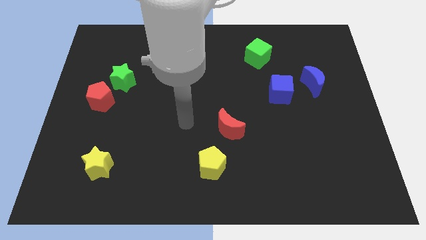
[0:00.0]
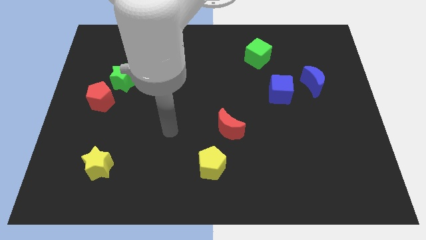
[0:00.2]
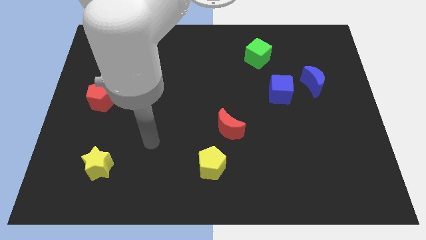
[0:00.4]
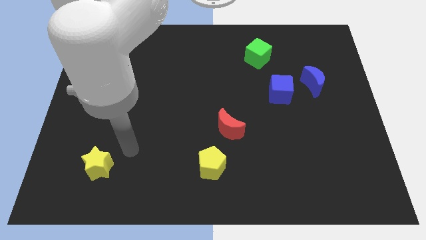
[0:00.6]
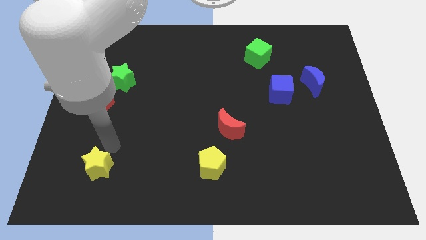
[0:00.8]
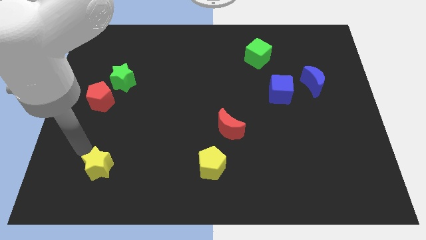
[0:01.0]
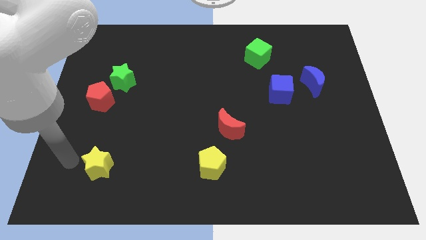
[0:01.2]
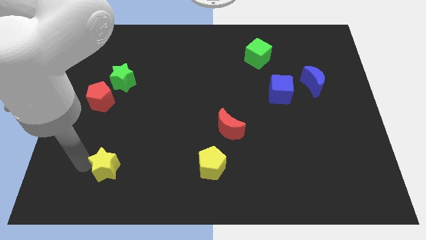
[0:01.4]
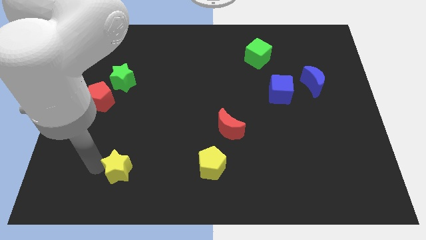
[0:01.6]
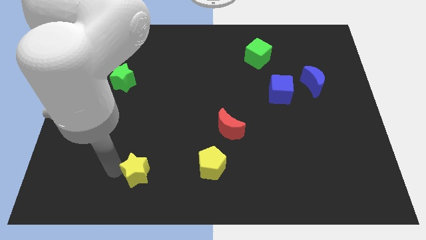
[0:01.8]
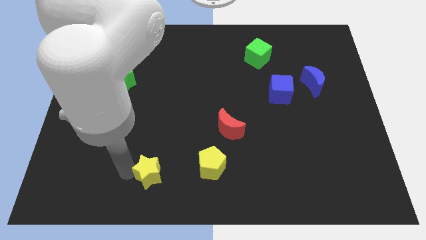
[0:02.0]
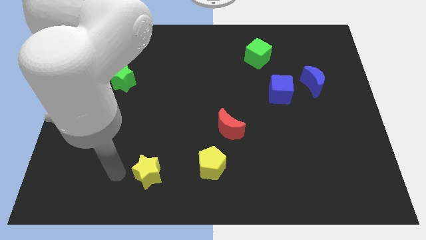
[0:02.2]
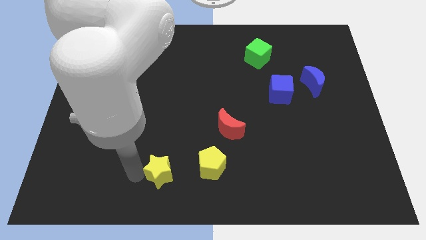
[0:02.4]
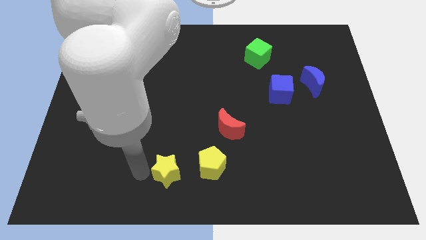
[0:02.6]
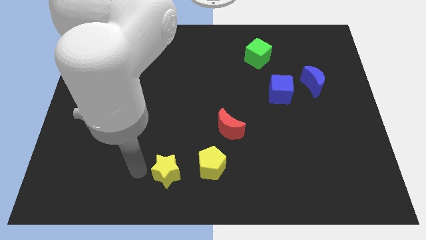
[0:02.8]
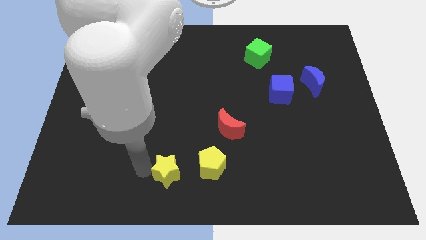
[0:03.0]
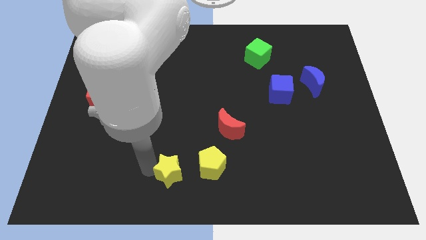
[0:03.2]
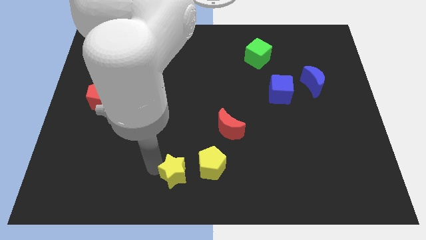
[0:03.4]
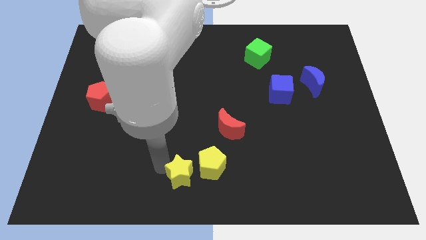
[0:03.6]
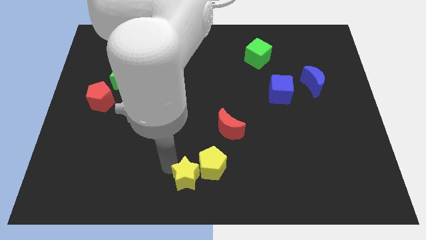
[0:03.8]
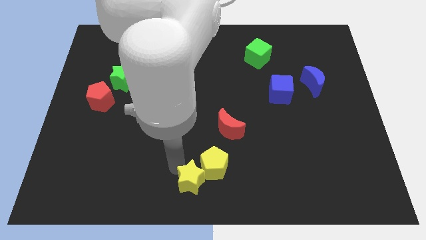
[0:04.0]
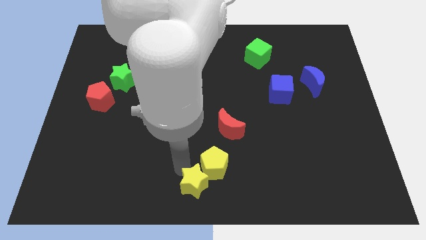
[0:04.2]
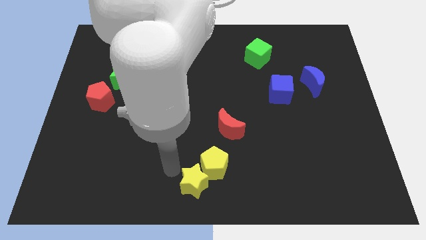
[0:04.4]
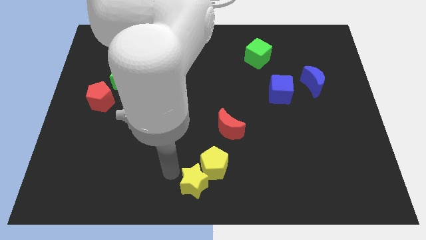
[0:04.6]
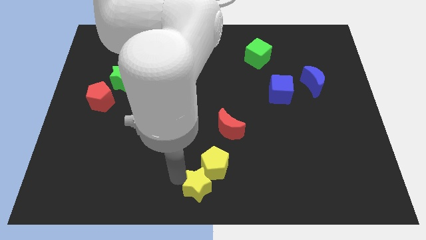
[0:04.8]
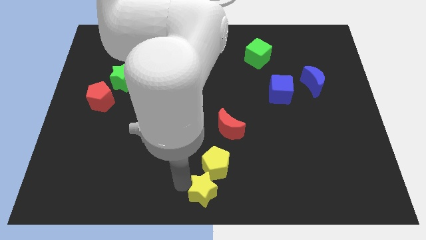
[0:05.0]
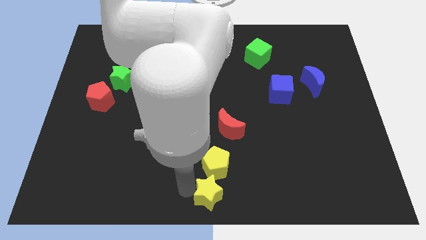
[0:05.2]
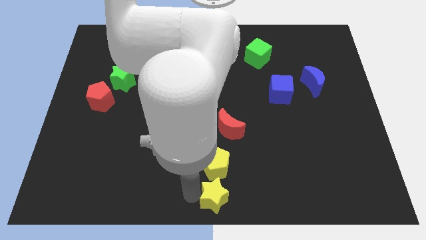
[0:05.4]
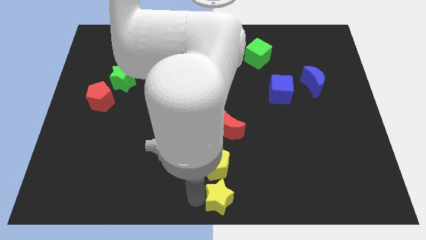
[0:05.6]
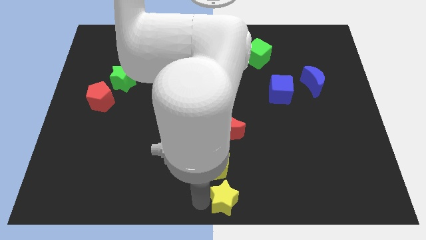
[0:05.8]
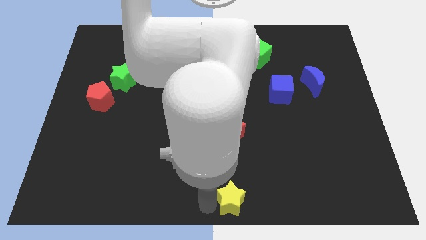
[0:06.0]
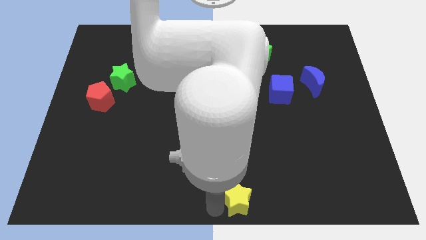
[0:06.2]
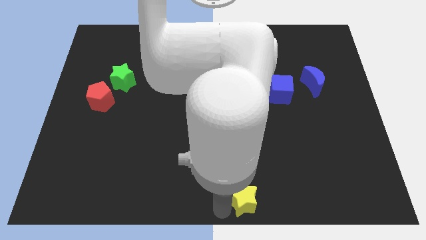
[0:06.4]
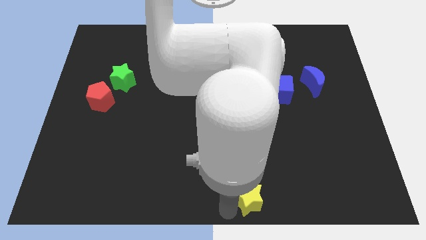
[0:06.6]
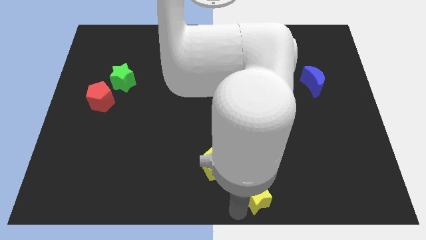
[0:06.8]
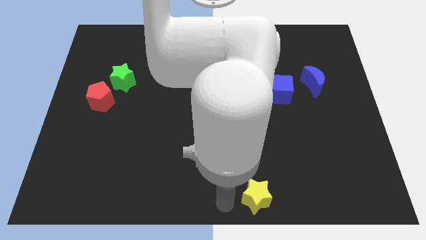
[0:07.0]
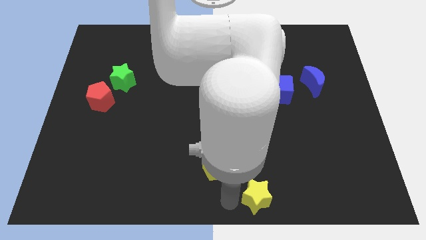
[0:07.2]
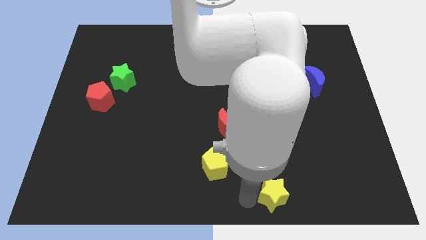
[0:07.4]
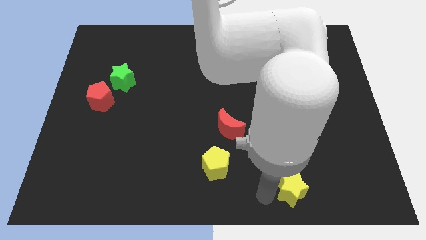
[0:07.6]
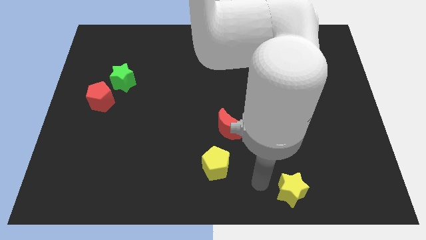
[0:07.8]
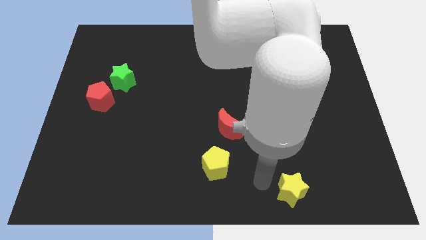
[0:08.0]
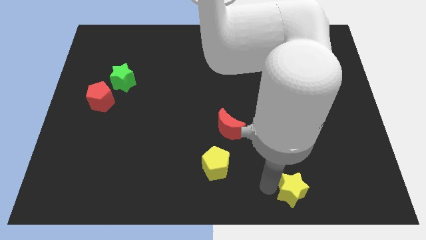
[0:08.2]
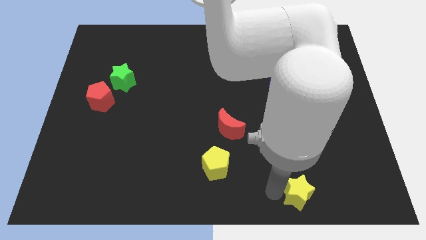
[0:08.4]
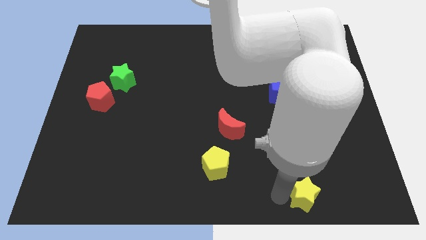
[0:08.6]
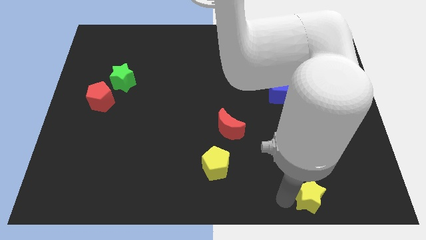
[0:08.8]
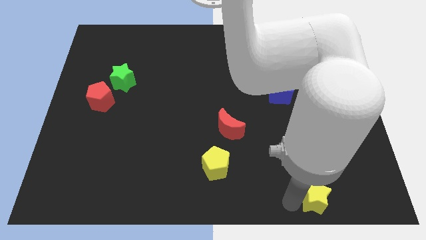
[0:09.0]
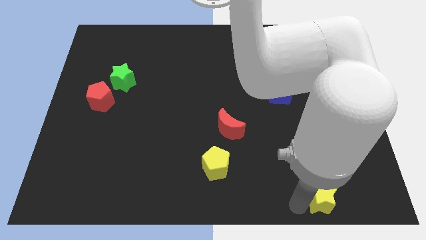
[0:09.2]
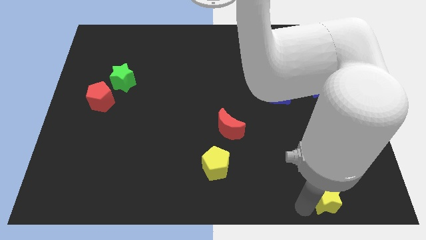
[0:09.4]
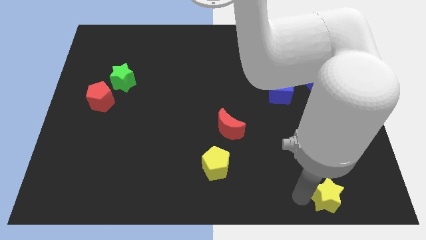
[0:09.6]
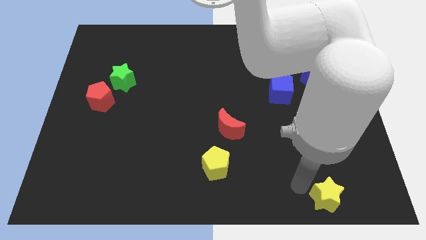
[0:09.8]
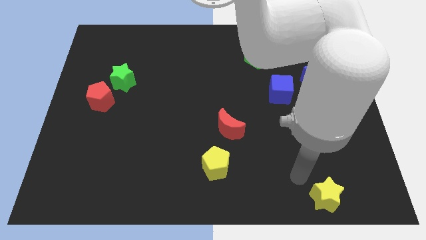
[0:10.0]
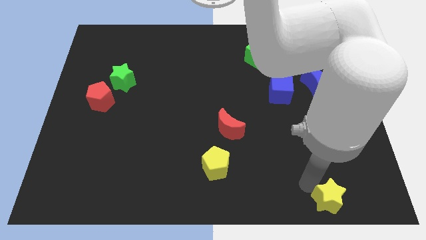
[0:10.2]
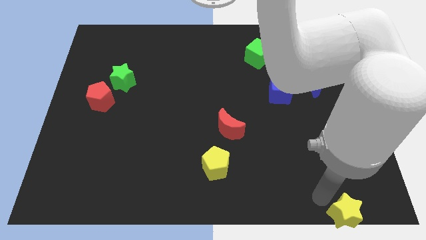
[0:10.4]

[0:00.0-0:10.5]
put the yellow star to the lower right corner

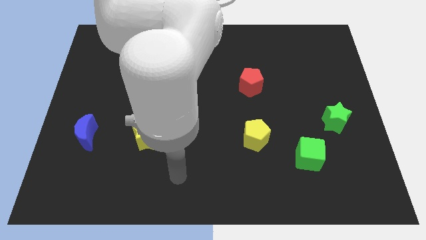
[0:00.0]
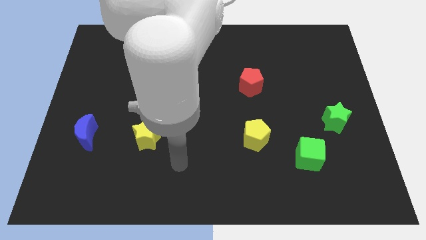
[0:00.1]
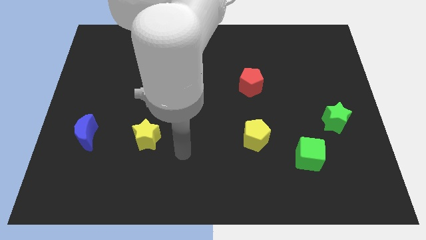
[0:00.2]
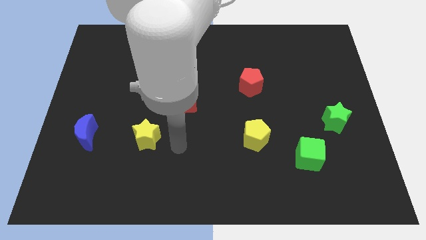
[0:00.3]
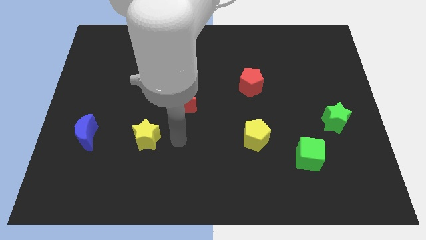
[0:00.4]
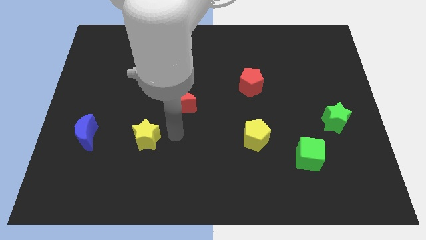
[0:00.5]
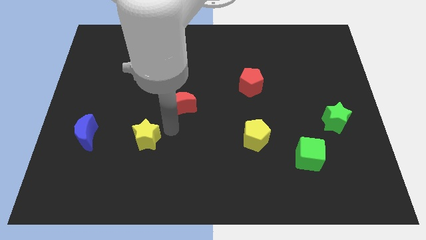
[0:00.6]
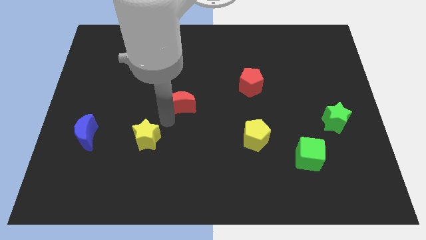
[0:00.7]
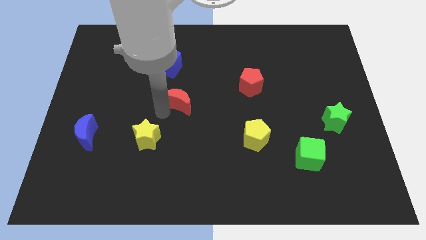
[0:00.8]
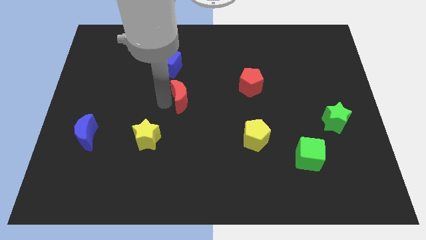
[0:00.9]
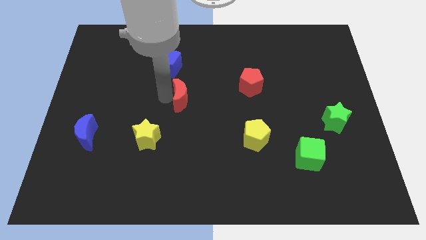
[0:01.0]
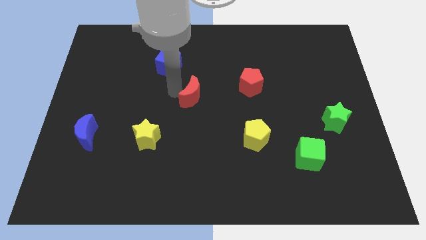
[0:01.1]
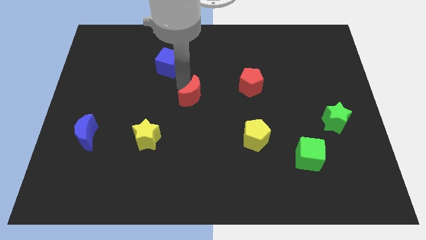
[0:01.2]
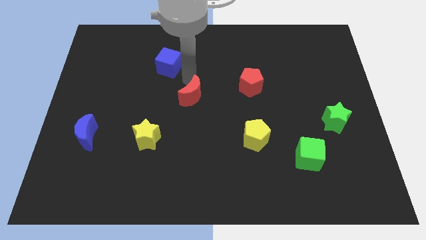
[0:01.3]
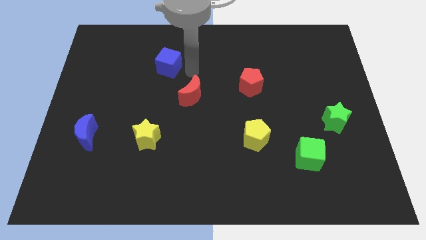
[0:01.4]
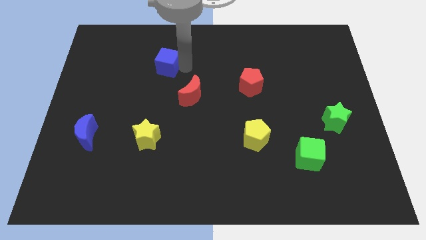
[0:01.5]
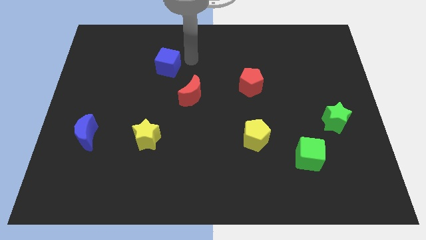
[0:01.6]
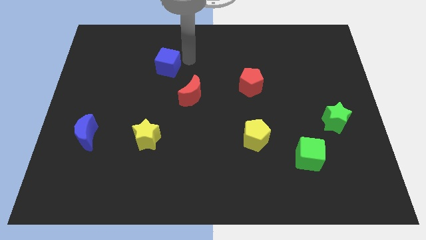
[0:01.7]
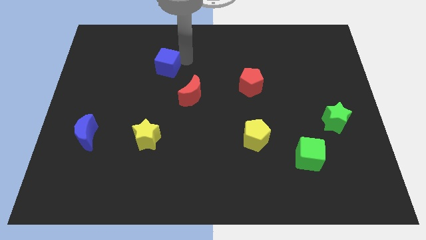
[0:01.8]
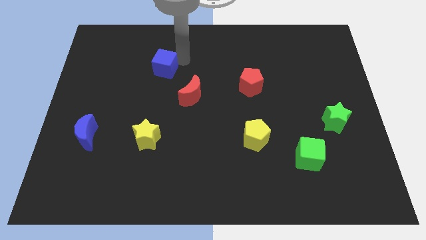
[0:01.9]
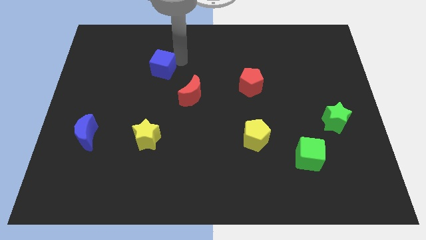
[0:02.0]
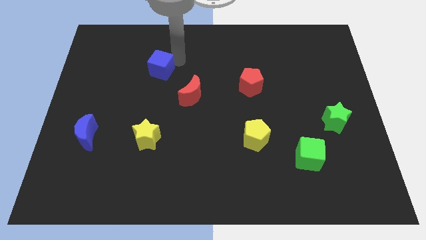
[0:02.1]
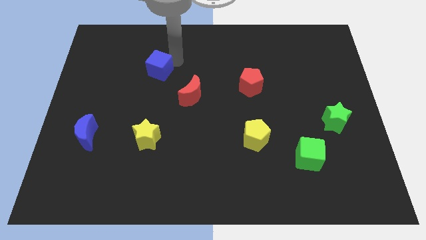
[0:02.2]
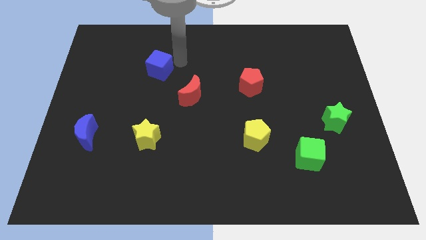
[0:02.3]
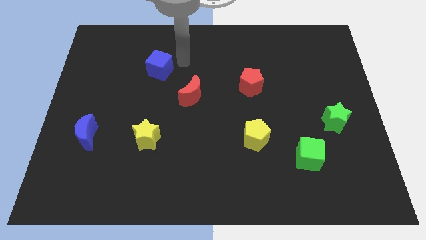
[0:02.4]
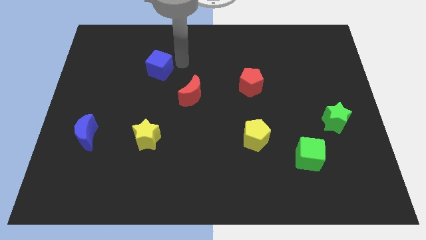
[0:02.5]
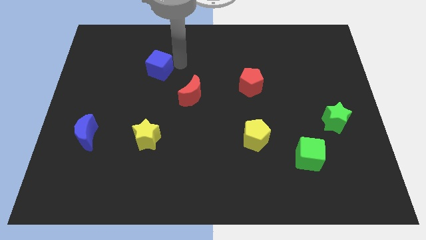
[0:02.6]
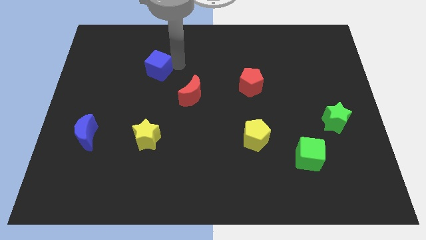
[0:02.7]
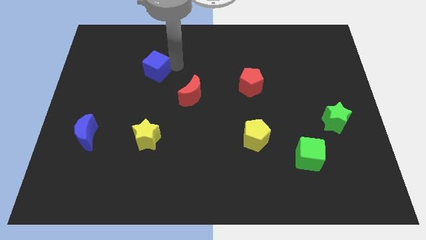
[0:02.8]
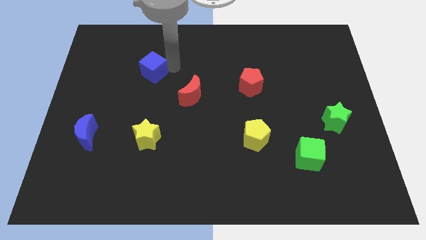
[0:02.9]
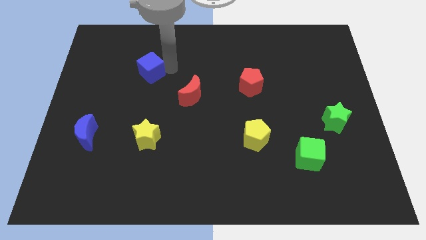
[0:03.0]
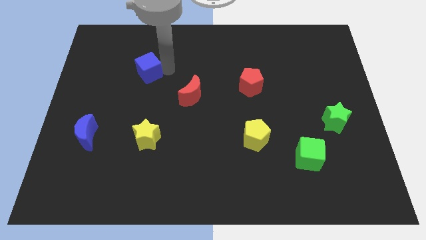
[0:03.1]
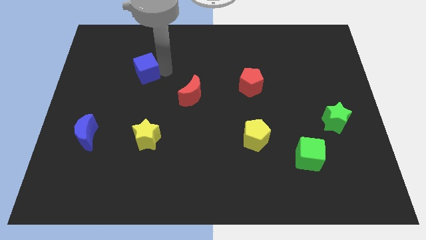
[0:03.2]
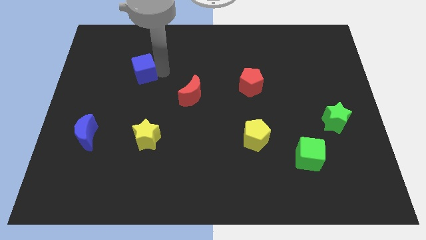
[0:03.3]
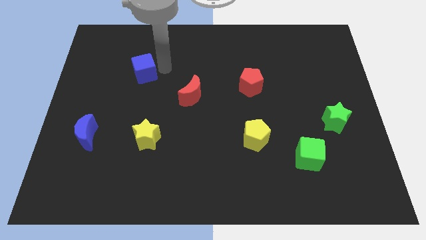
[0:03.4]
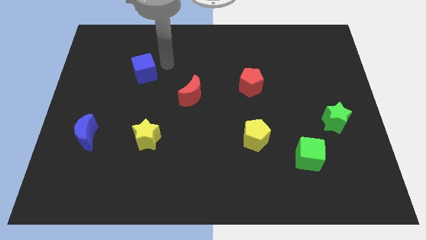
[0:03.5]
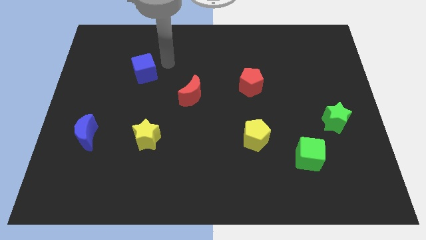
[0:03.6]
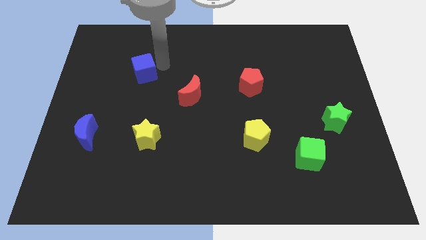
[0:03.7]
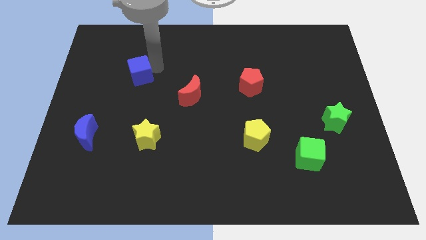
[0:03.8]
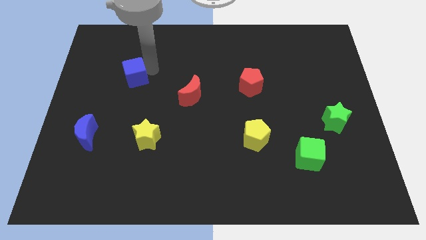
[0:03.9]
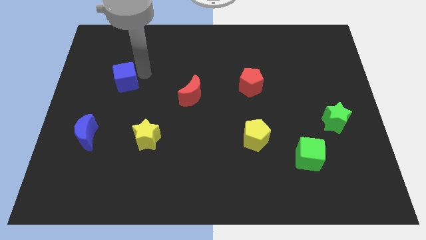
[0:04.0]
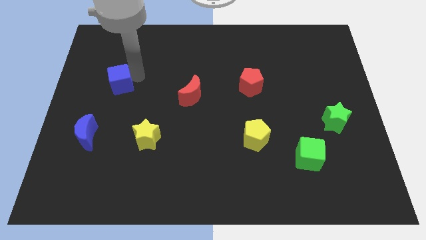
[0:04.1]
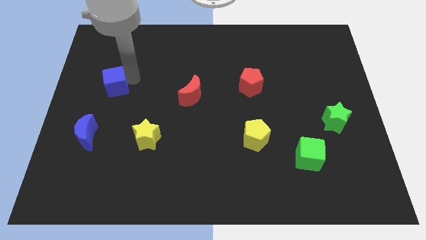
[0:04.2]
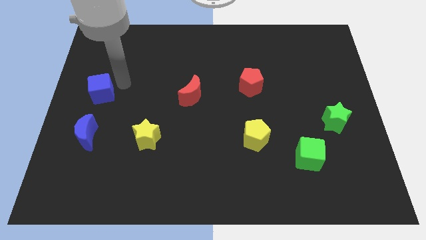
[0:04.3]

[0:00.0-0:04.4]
put the blue cube to the left side of the board
